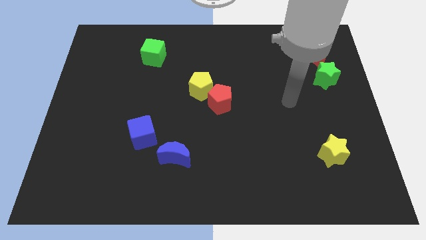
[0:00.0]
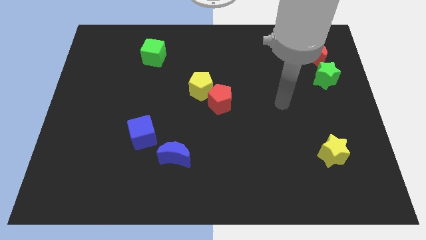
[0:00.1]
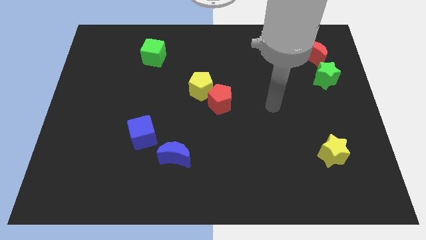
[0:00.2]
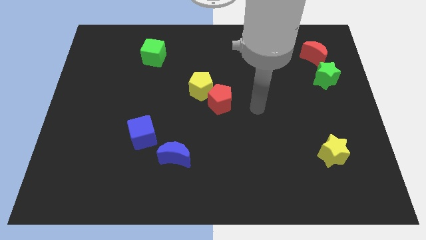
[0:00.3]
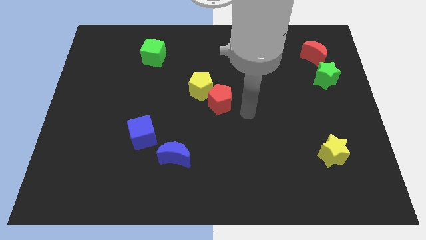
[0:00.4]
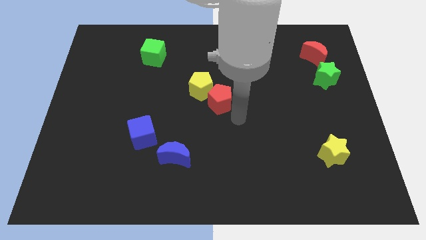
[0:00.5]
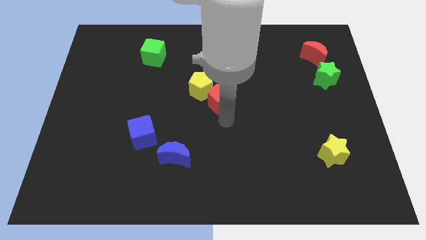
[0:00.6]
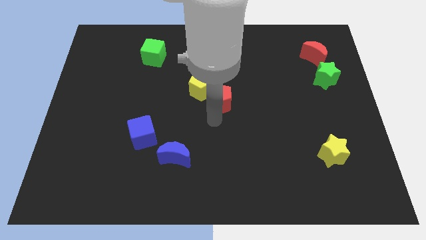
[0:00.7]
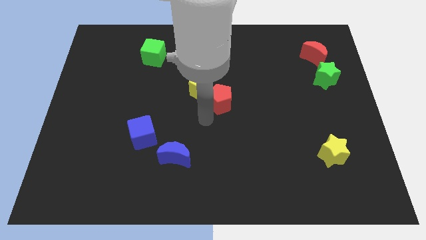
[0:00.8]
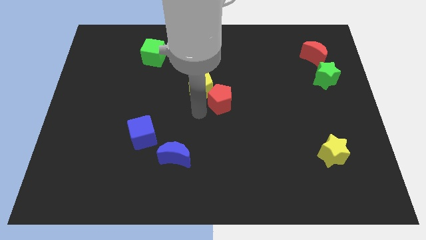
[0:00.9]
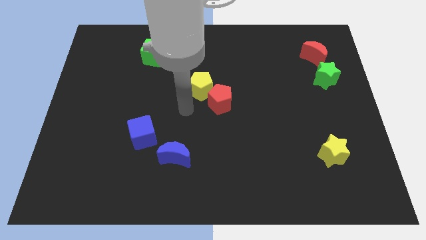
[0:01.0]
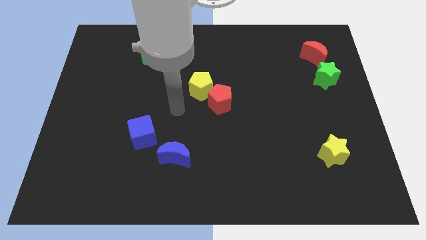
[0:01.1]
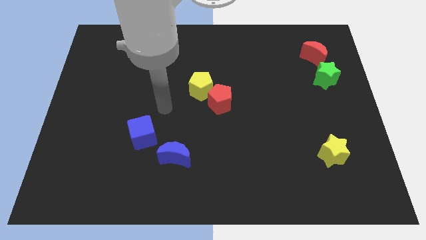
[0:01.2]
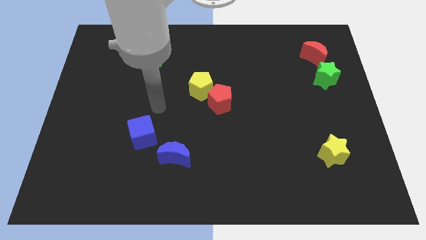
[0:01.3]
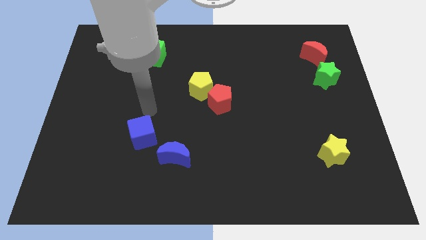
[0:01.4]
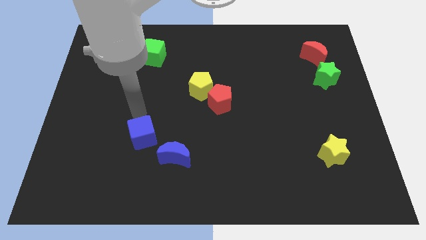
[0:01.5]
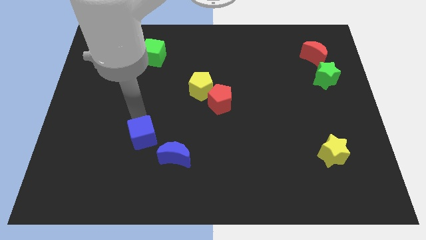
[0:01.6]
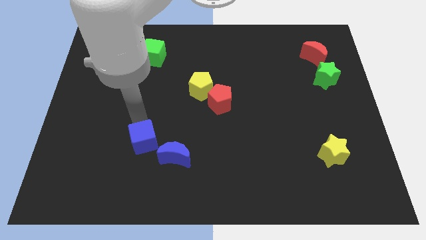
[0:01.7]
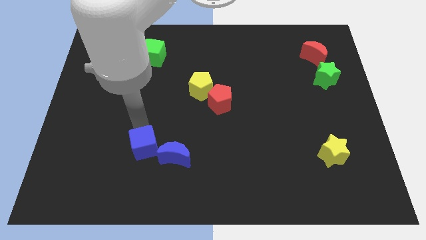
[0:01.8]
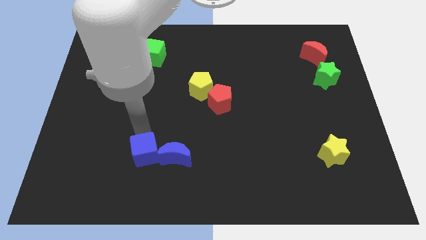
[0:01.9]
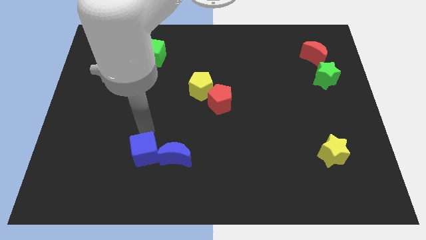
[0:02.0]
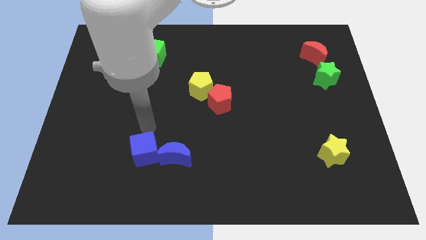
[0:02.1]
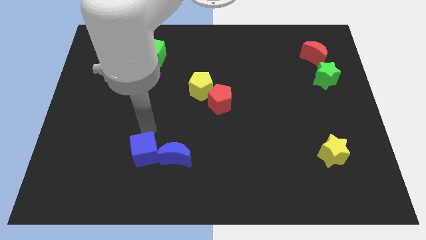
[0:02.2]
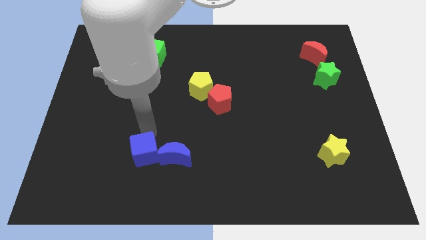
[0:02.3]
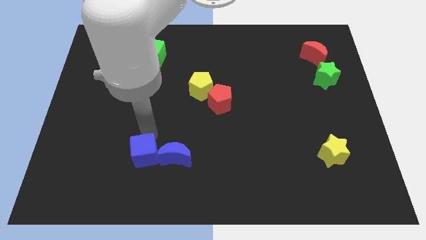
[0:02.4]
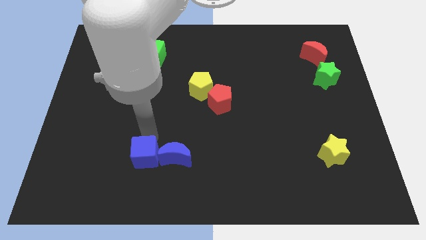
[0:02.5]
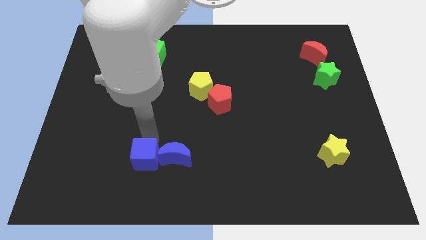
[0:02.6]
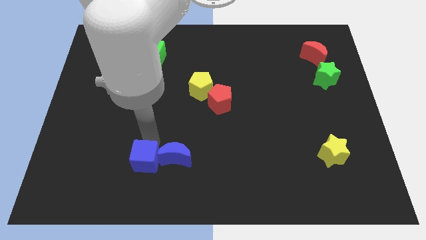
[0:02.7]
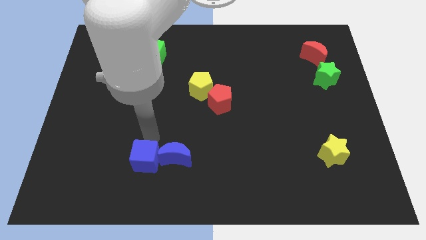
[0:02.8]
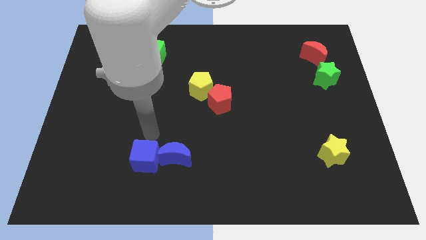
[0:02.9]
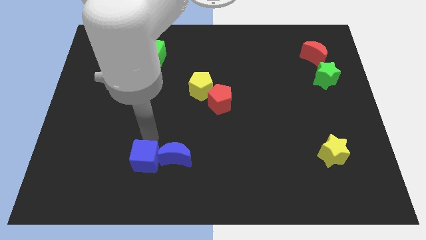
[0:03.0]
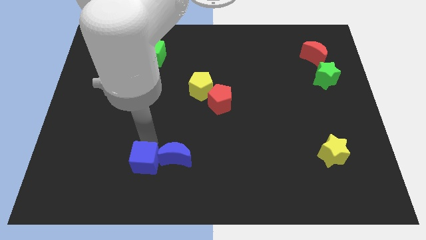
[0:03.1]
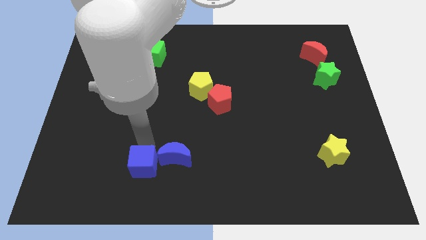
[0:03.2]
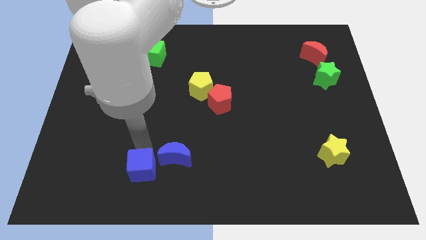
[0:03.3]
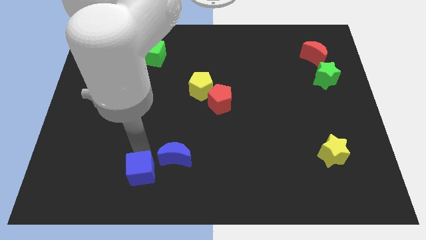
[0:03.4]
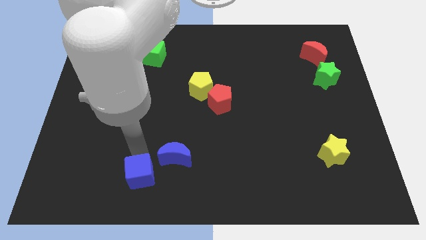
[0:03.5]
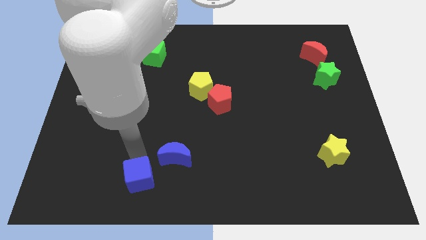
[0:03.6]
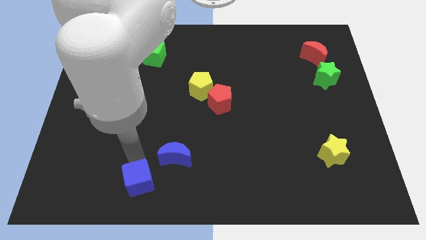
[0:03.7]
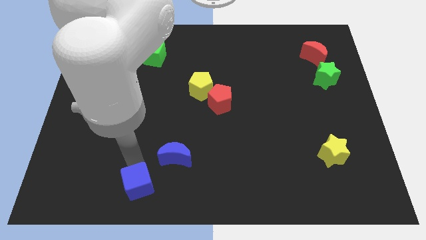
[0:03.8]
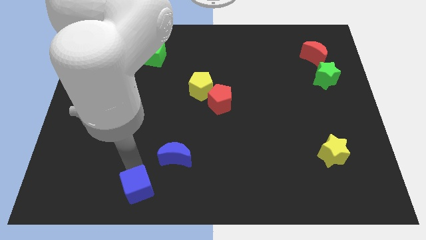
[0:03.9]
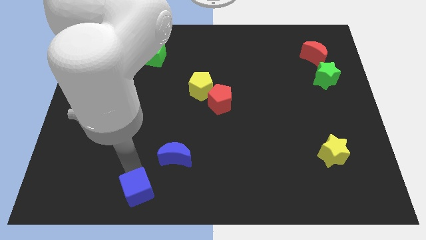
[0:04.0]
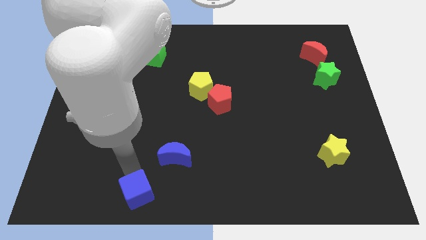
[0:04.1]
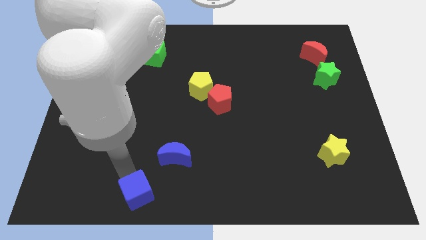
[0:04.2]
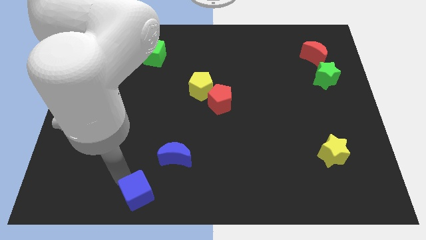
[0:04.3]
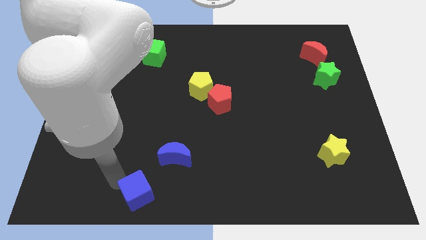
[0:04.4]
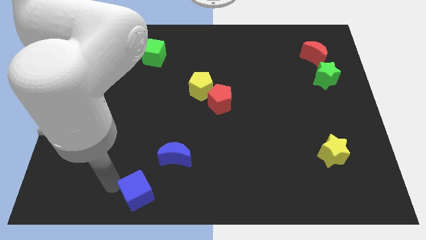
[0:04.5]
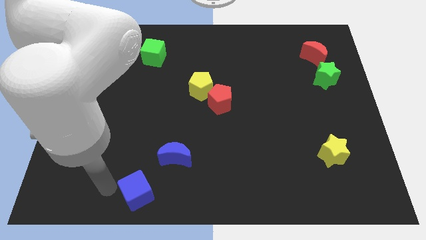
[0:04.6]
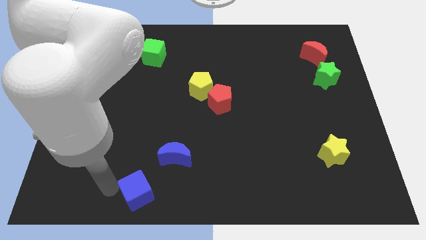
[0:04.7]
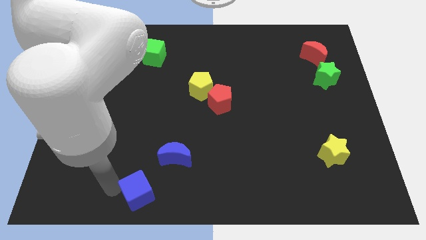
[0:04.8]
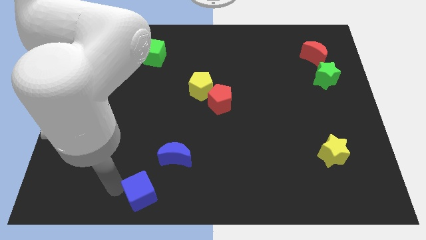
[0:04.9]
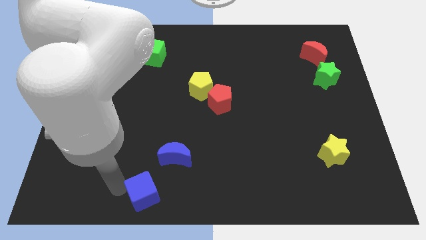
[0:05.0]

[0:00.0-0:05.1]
push the blue cube to the bottom
